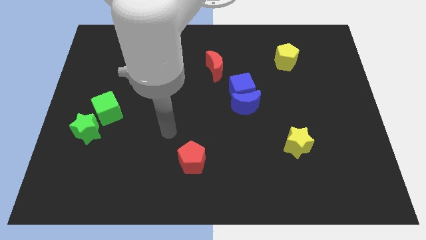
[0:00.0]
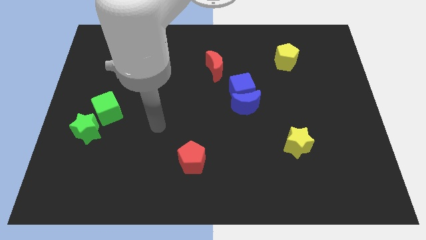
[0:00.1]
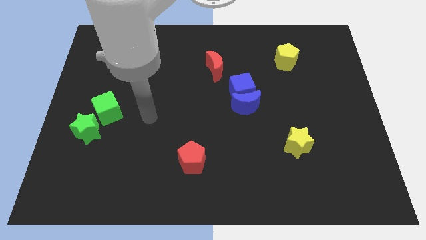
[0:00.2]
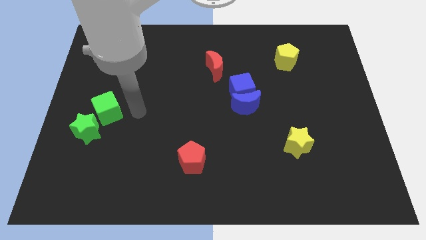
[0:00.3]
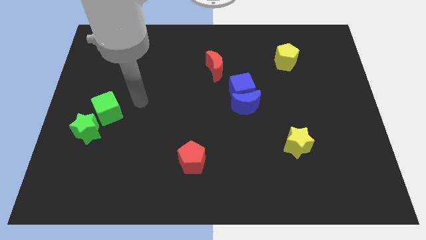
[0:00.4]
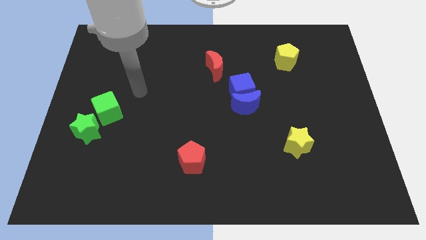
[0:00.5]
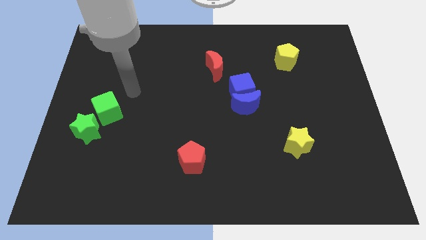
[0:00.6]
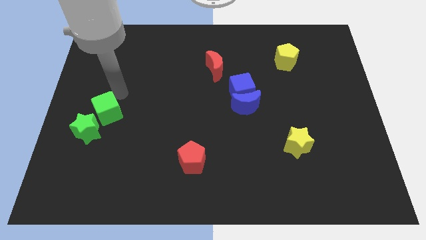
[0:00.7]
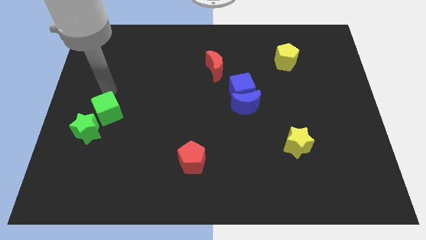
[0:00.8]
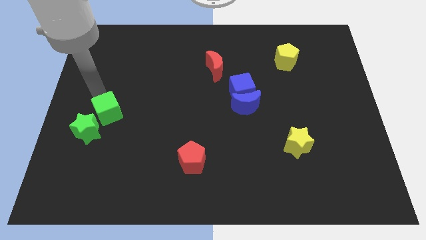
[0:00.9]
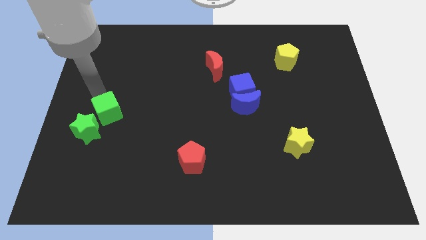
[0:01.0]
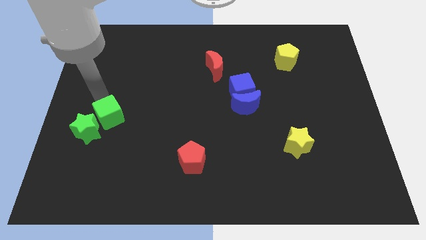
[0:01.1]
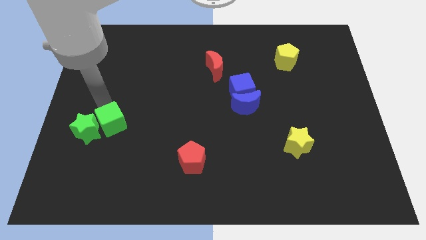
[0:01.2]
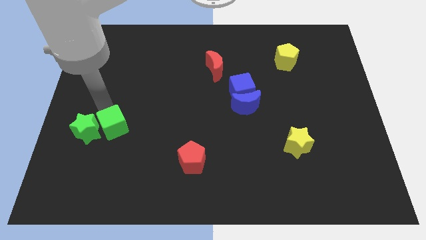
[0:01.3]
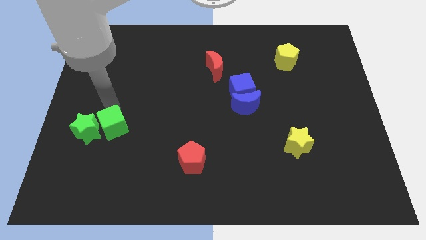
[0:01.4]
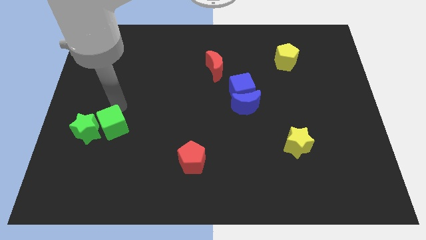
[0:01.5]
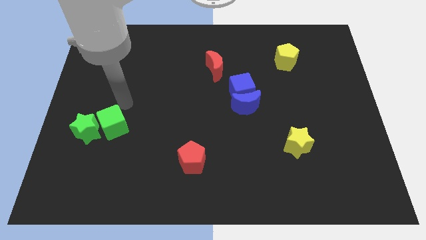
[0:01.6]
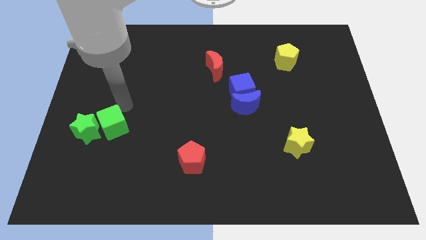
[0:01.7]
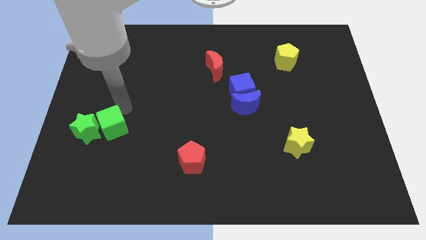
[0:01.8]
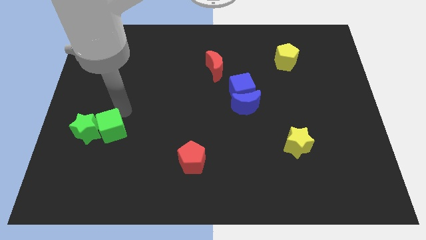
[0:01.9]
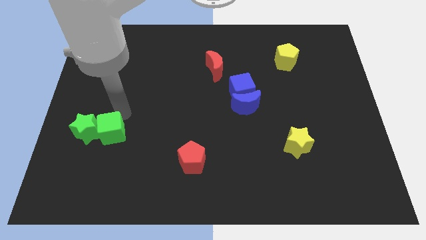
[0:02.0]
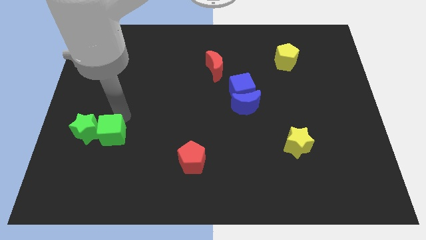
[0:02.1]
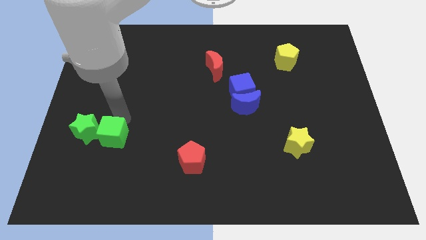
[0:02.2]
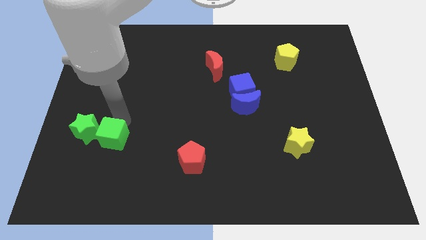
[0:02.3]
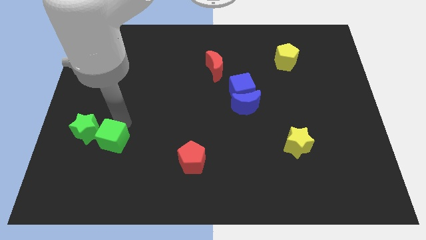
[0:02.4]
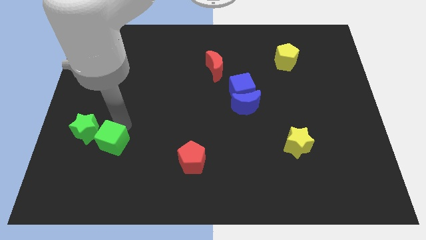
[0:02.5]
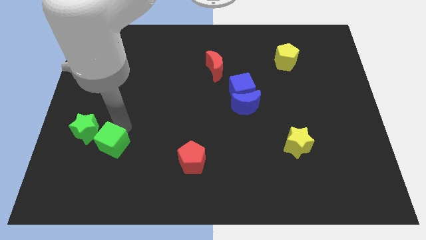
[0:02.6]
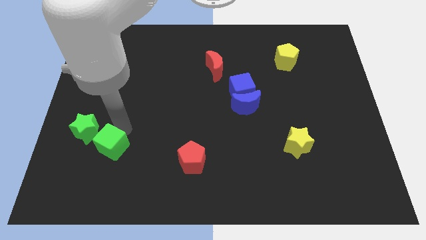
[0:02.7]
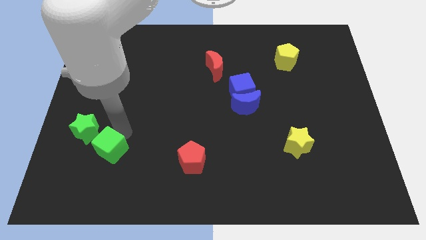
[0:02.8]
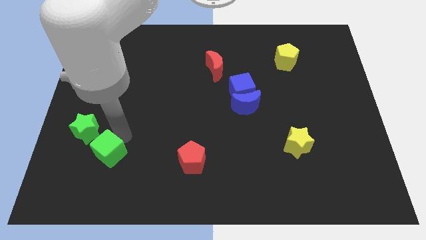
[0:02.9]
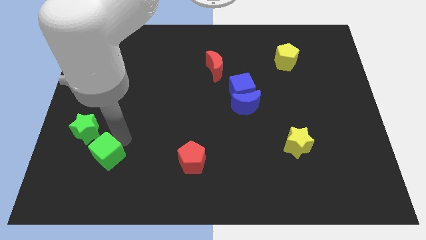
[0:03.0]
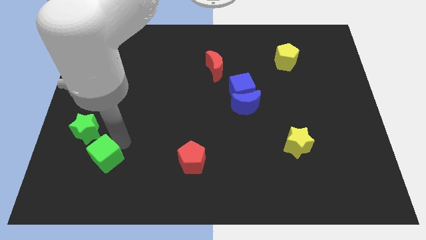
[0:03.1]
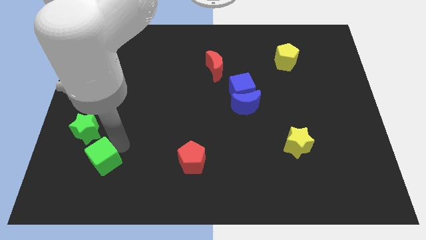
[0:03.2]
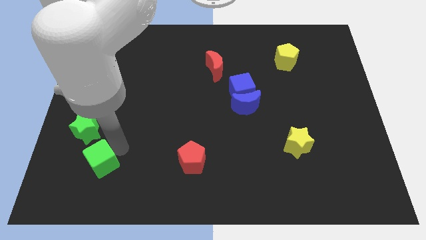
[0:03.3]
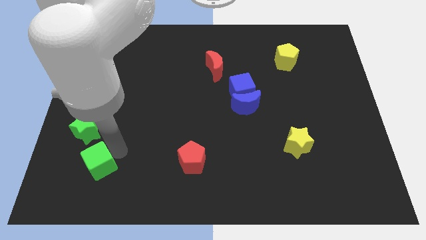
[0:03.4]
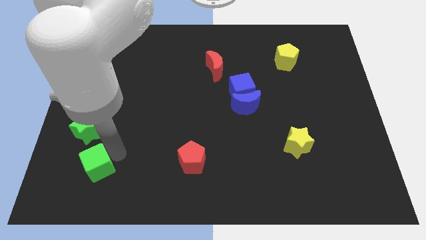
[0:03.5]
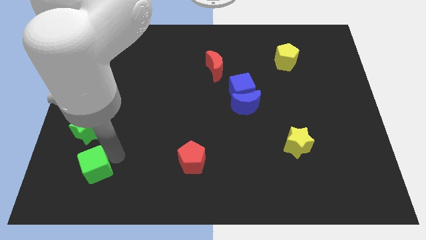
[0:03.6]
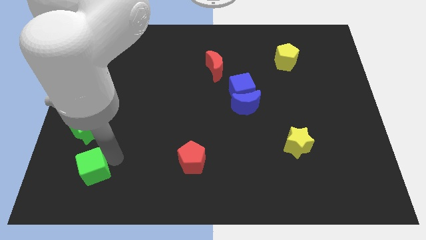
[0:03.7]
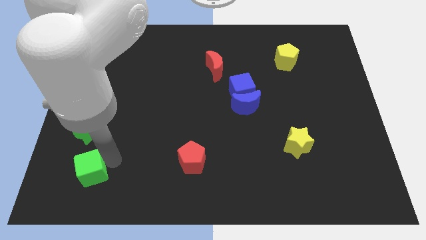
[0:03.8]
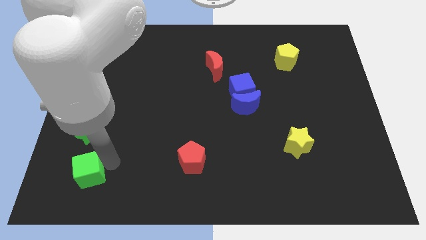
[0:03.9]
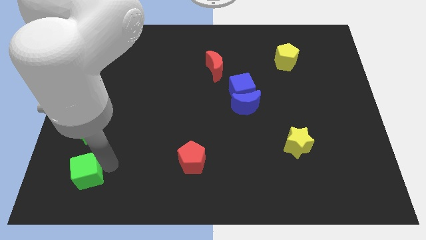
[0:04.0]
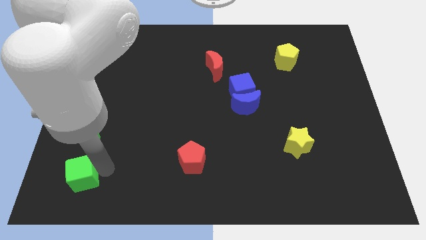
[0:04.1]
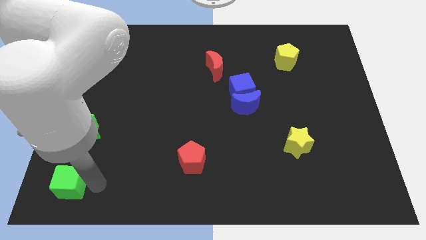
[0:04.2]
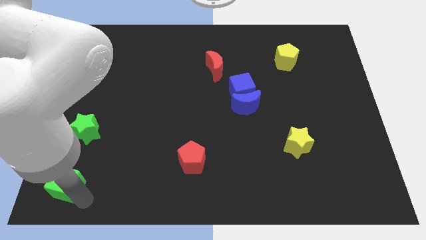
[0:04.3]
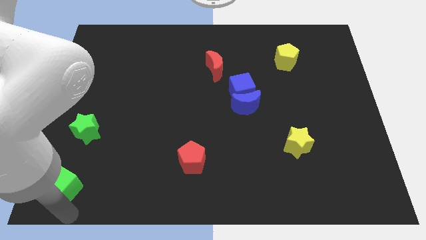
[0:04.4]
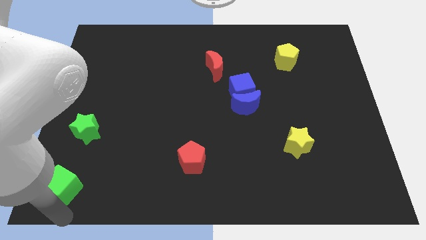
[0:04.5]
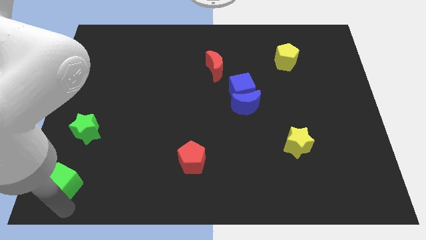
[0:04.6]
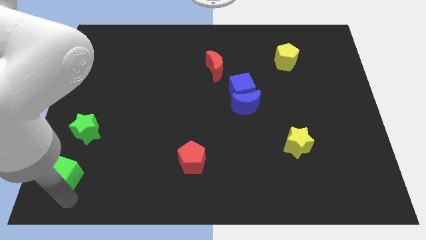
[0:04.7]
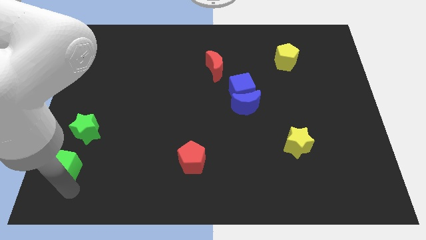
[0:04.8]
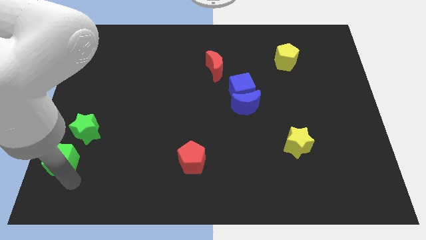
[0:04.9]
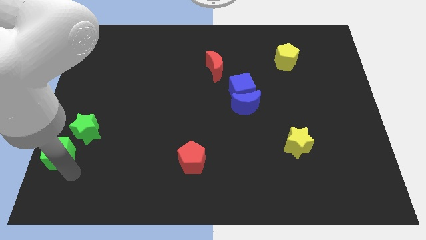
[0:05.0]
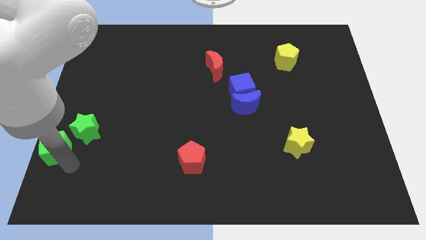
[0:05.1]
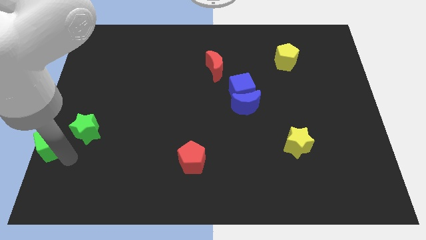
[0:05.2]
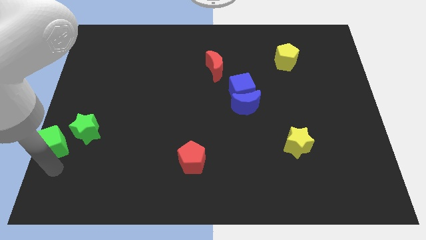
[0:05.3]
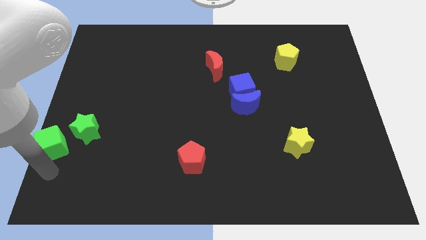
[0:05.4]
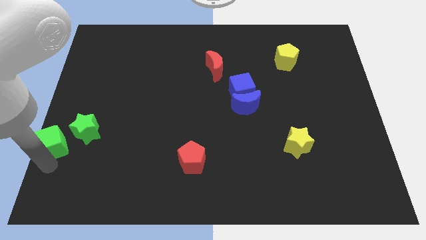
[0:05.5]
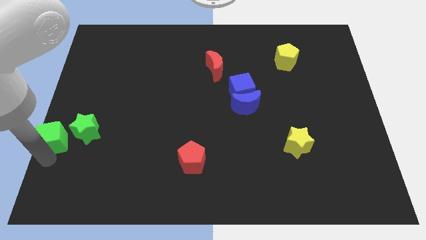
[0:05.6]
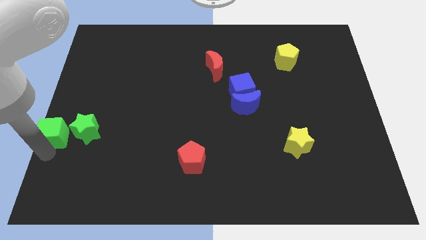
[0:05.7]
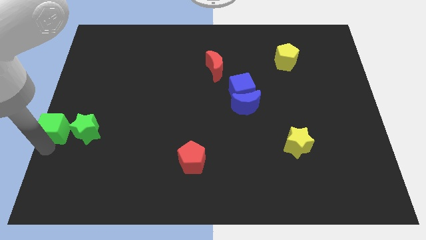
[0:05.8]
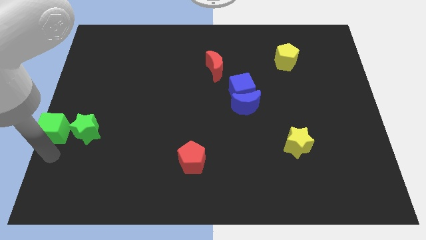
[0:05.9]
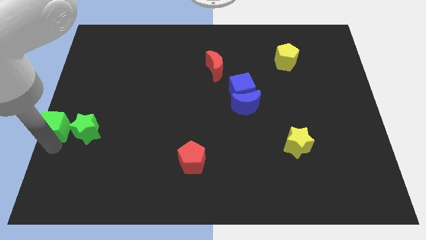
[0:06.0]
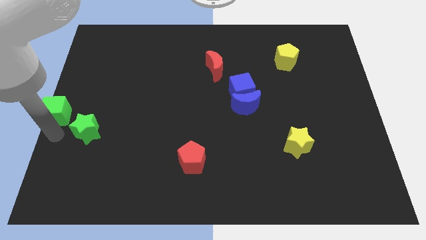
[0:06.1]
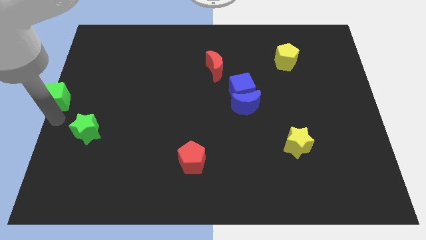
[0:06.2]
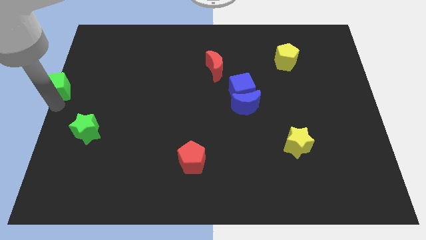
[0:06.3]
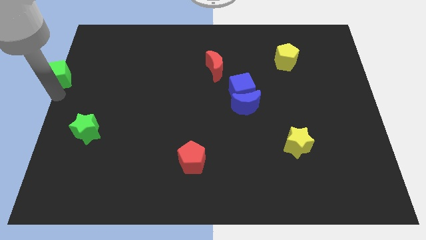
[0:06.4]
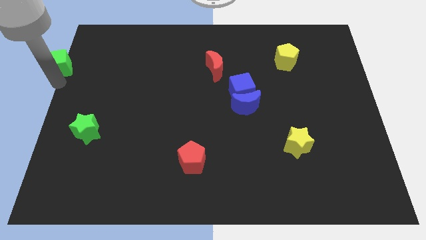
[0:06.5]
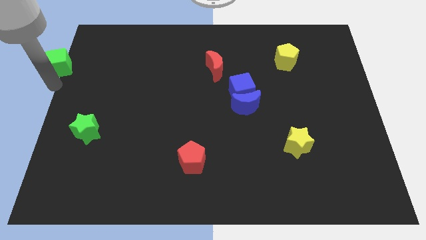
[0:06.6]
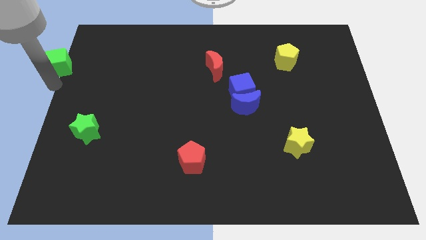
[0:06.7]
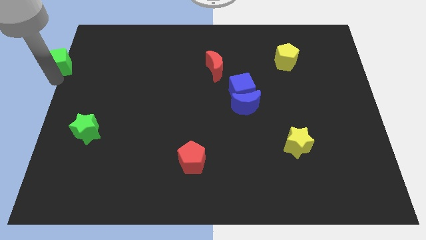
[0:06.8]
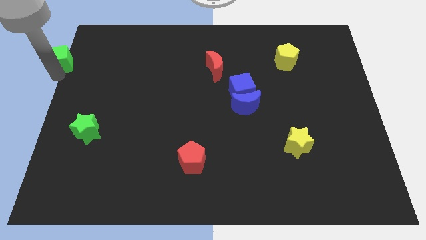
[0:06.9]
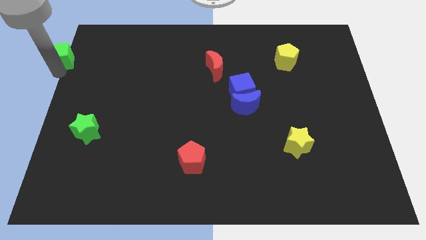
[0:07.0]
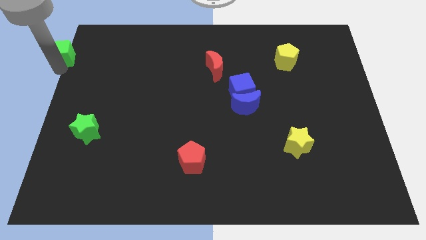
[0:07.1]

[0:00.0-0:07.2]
put the green cube to the top left corner
